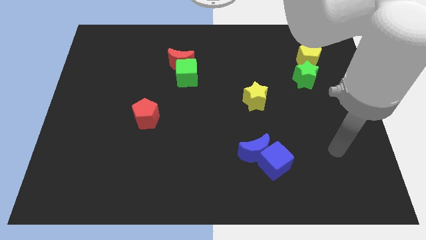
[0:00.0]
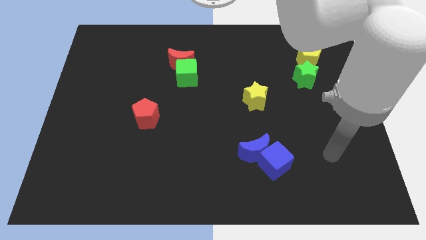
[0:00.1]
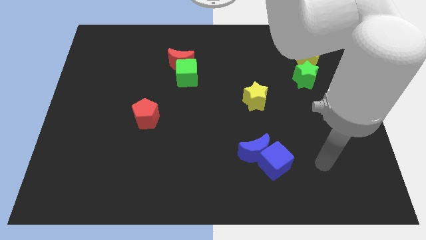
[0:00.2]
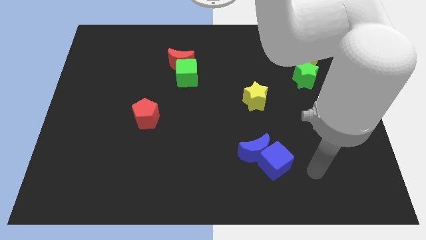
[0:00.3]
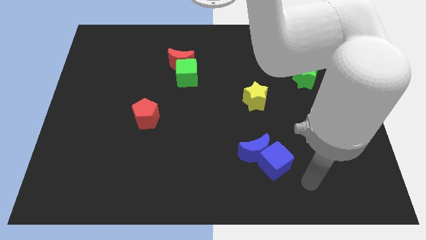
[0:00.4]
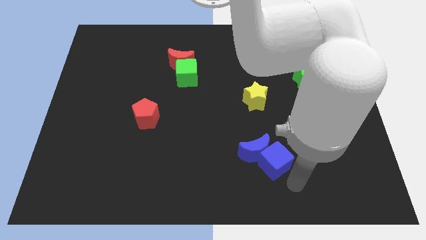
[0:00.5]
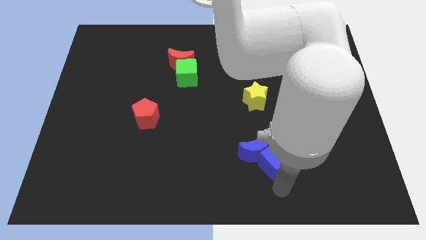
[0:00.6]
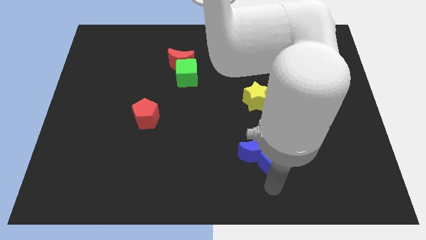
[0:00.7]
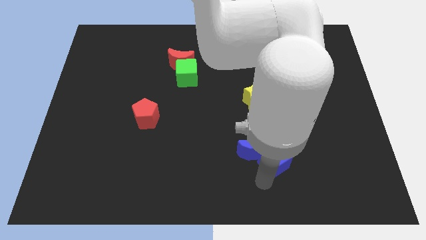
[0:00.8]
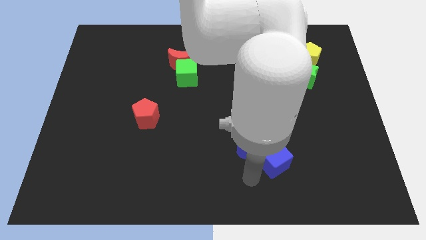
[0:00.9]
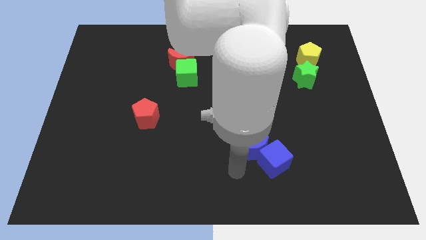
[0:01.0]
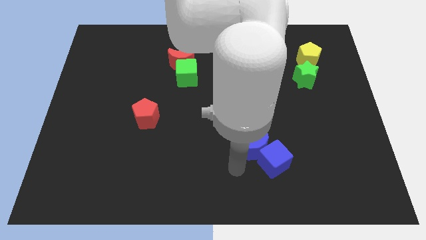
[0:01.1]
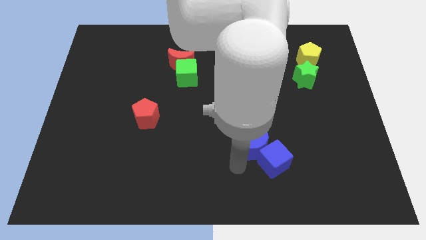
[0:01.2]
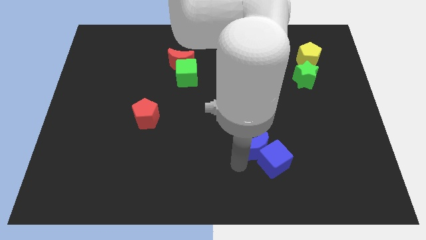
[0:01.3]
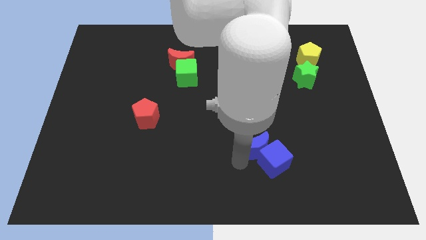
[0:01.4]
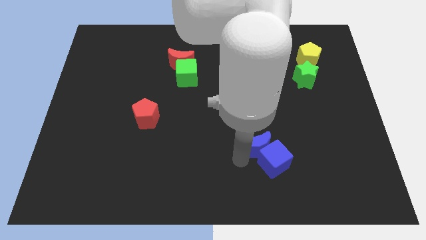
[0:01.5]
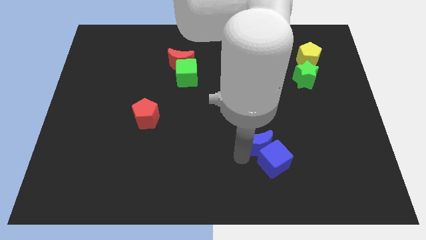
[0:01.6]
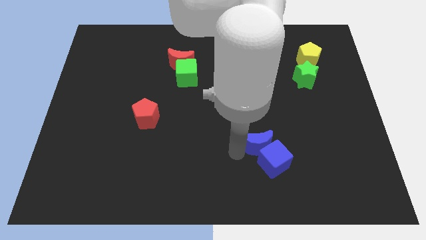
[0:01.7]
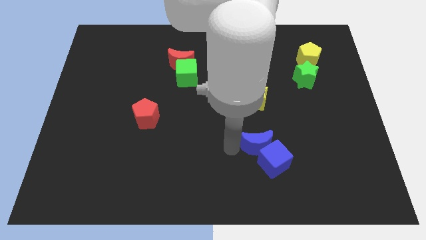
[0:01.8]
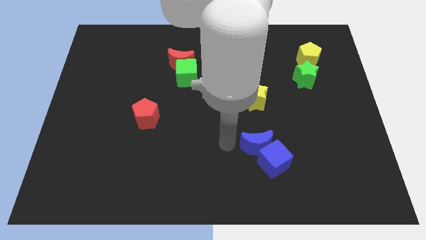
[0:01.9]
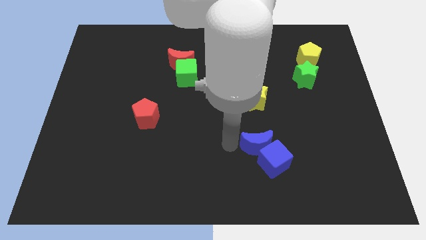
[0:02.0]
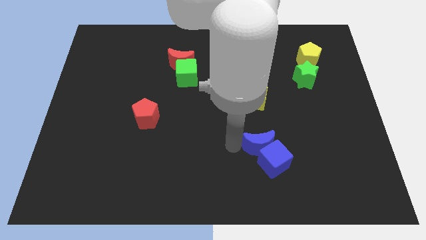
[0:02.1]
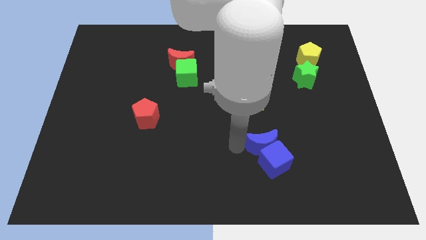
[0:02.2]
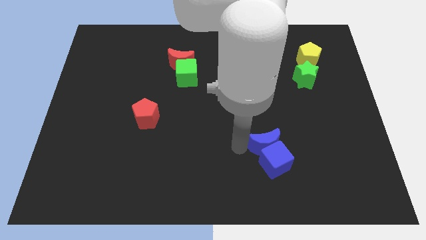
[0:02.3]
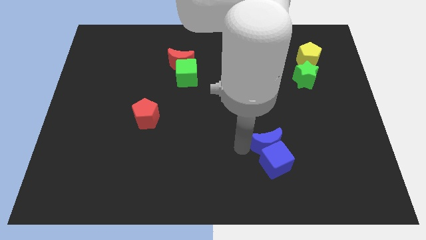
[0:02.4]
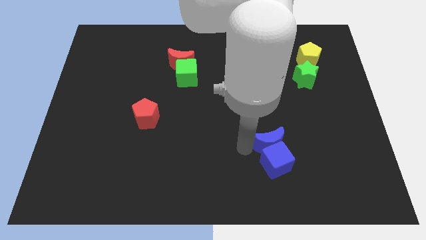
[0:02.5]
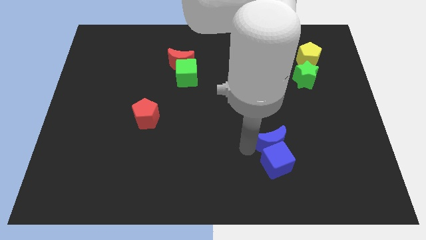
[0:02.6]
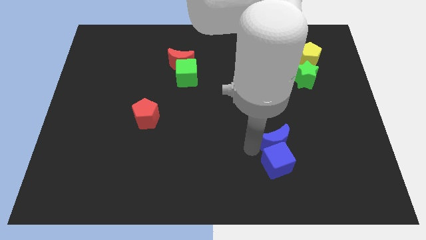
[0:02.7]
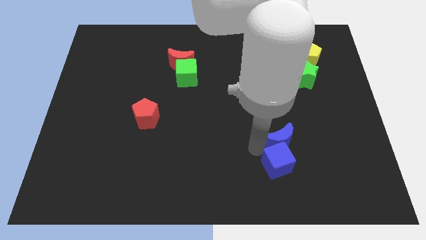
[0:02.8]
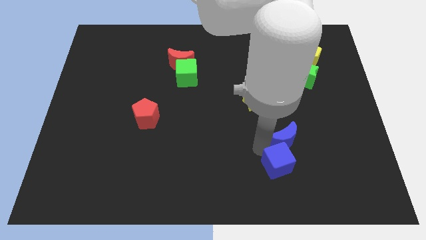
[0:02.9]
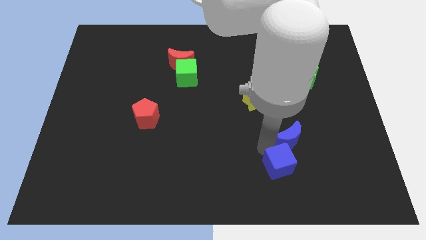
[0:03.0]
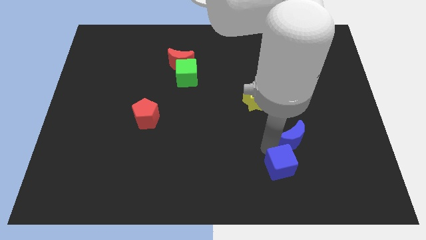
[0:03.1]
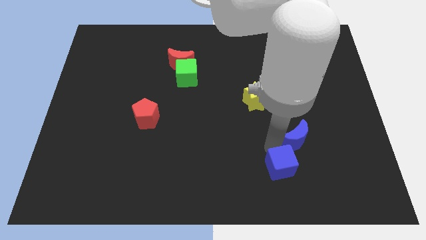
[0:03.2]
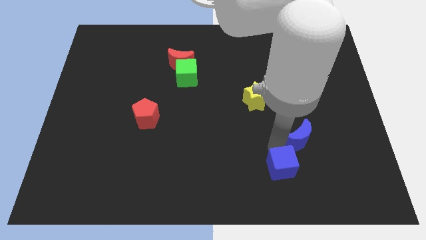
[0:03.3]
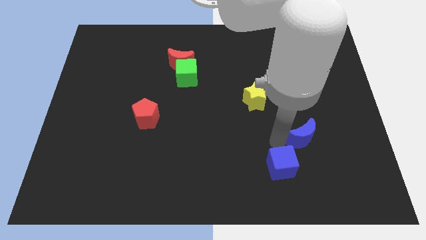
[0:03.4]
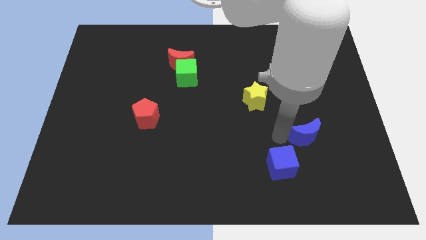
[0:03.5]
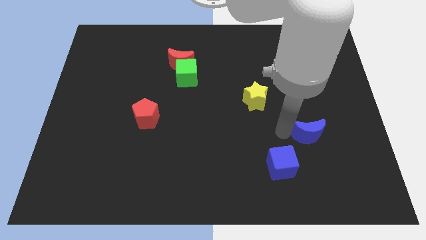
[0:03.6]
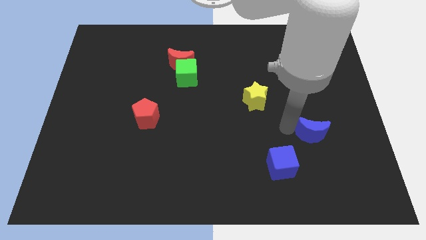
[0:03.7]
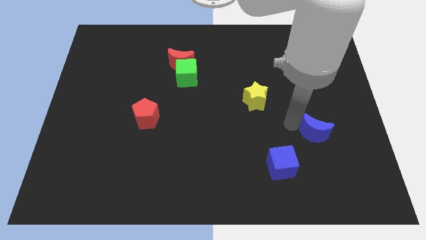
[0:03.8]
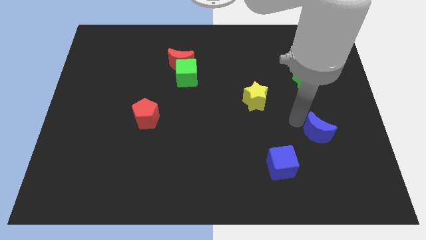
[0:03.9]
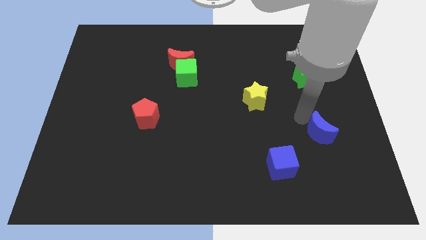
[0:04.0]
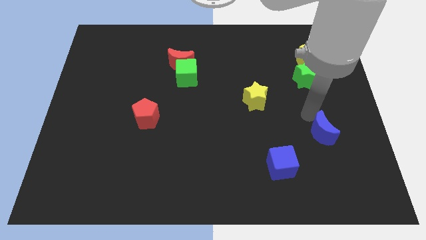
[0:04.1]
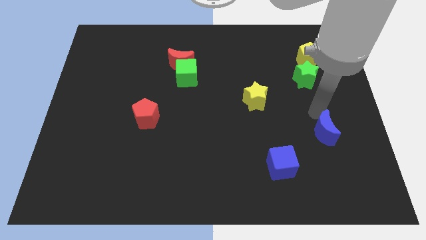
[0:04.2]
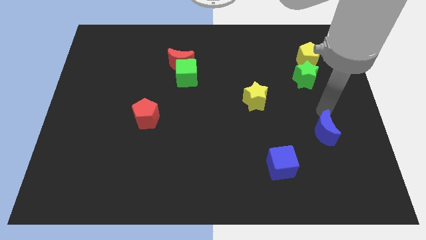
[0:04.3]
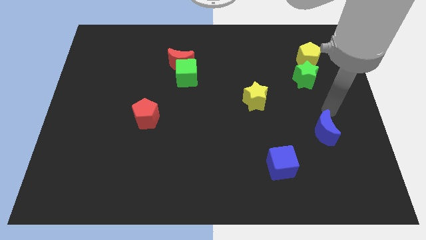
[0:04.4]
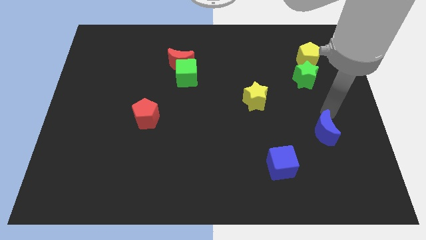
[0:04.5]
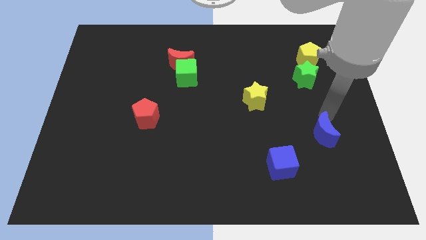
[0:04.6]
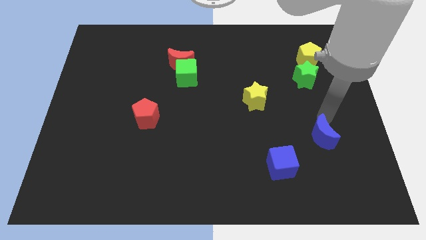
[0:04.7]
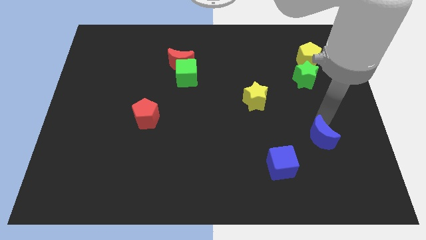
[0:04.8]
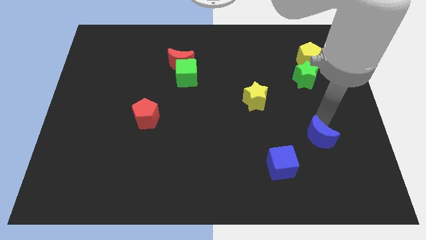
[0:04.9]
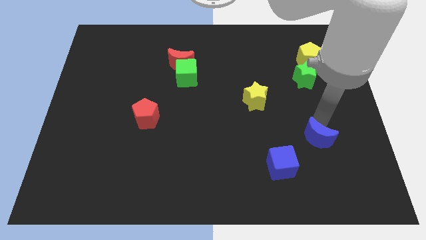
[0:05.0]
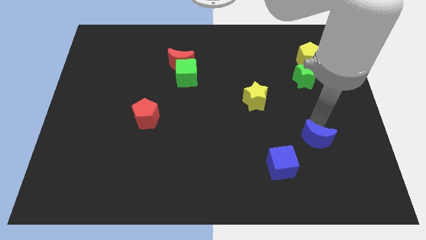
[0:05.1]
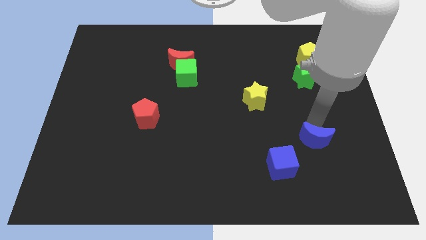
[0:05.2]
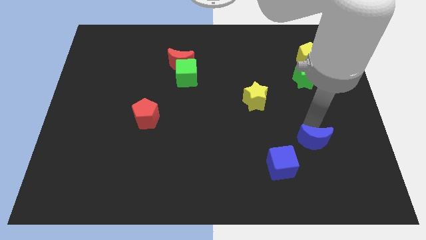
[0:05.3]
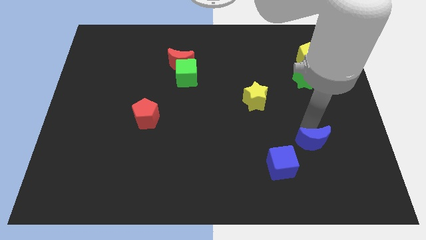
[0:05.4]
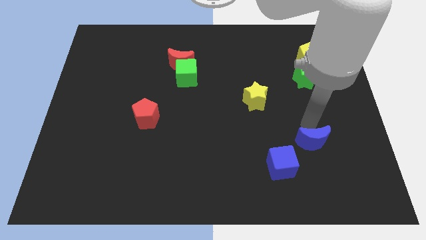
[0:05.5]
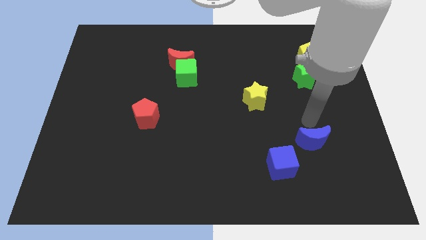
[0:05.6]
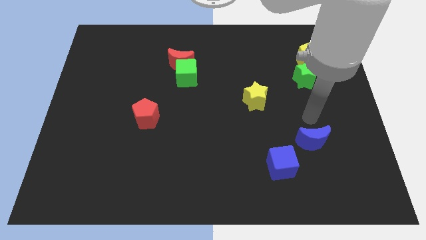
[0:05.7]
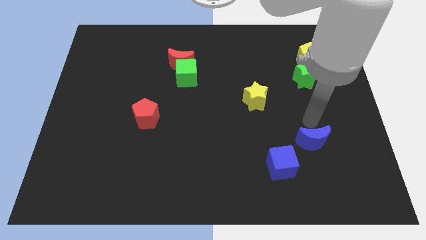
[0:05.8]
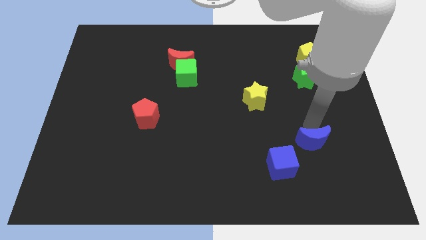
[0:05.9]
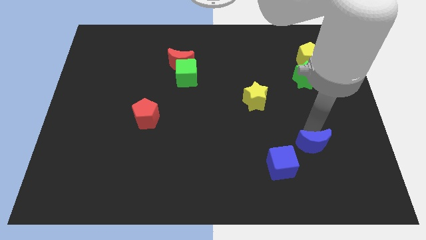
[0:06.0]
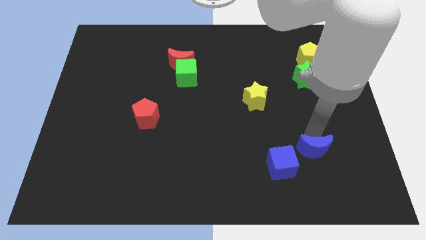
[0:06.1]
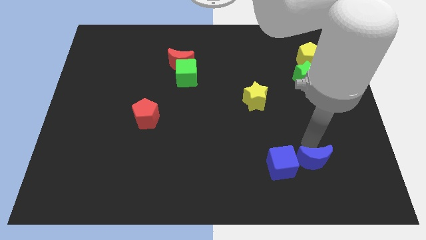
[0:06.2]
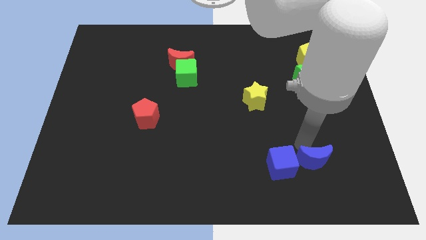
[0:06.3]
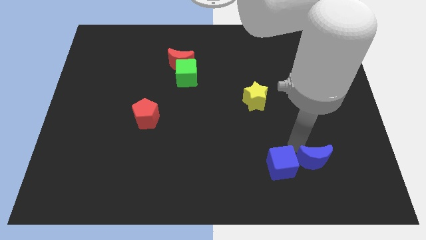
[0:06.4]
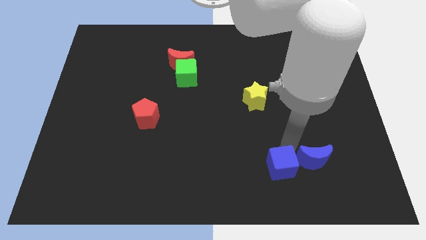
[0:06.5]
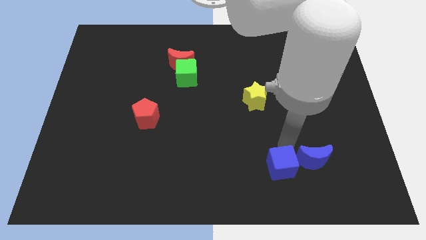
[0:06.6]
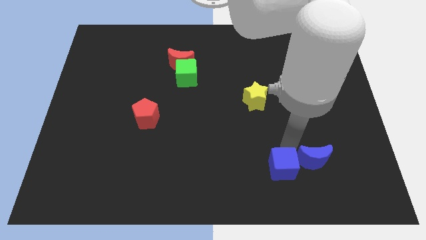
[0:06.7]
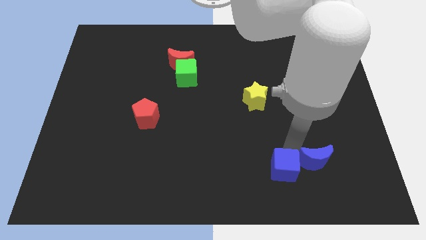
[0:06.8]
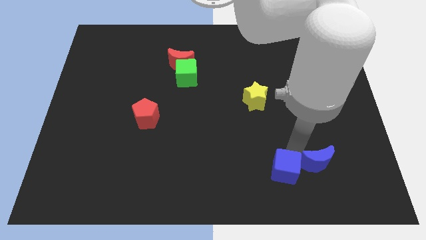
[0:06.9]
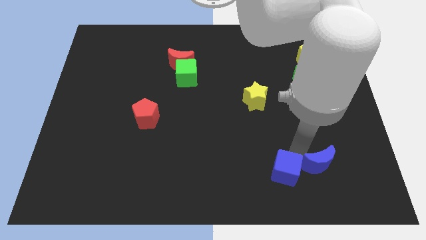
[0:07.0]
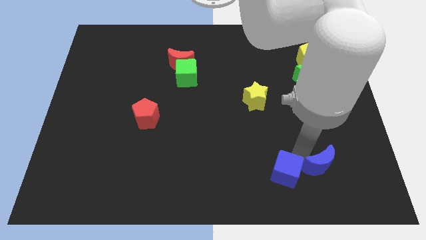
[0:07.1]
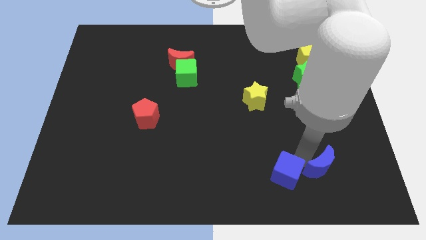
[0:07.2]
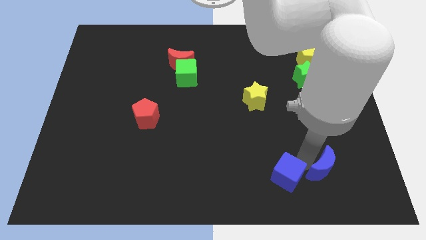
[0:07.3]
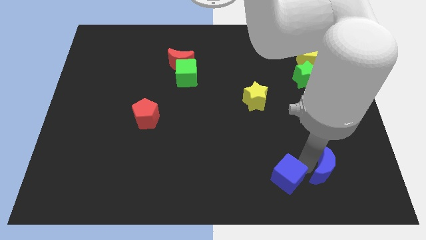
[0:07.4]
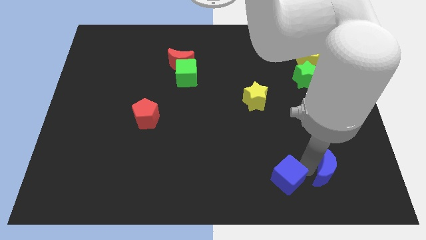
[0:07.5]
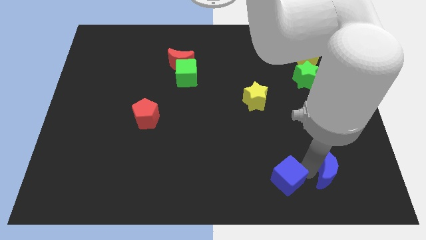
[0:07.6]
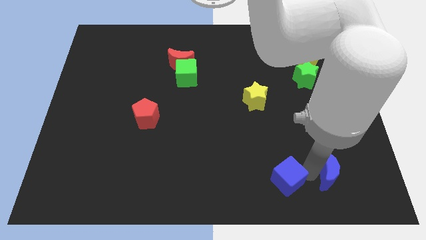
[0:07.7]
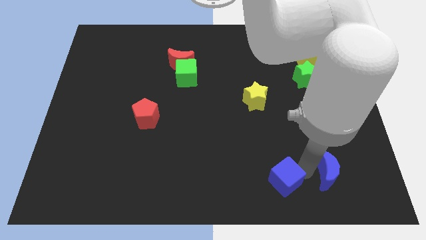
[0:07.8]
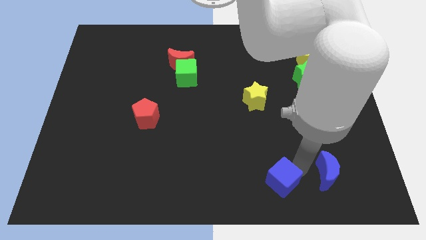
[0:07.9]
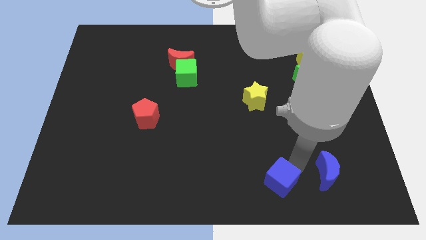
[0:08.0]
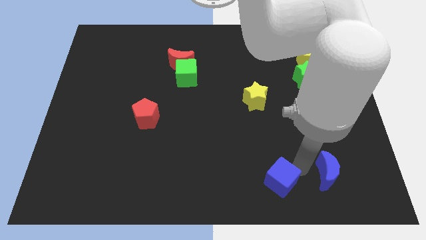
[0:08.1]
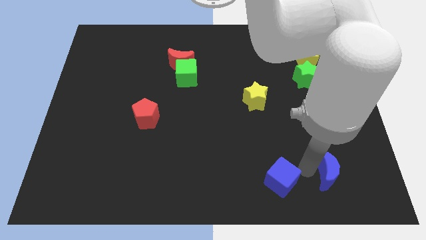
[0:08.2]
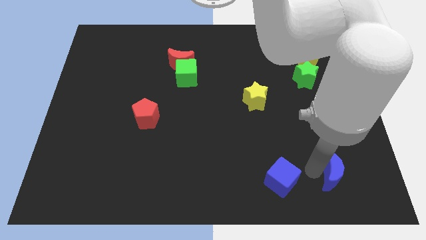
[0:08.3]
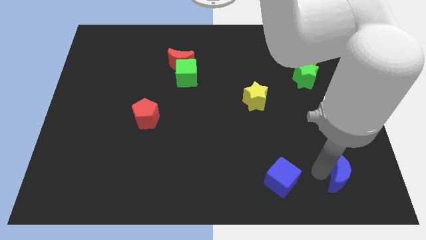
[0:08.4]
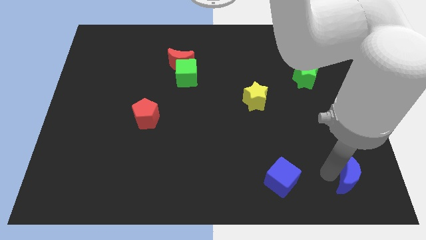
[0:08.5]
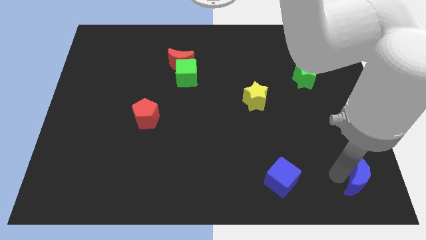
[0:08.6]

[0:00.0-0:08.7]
slide the blue moon to the bottom right corner
